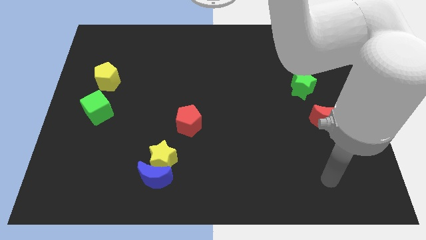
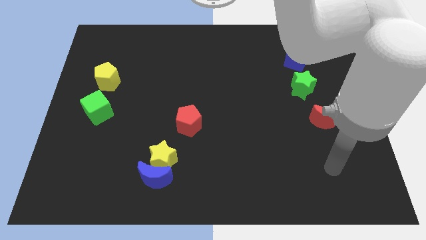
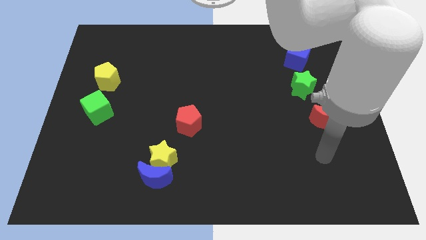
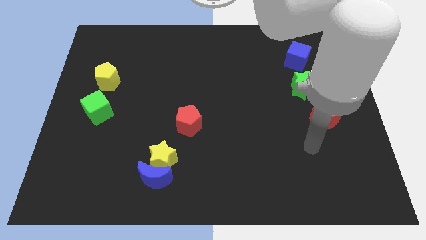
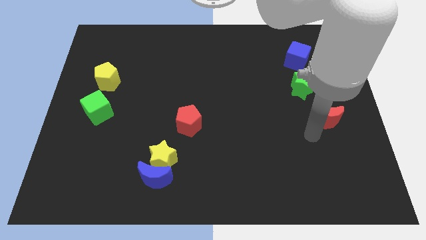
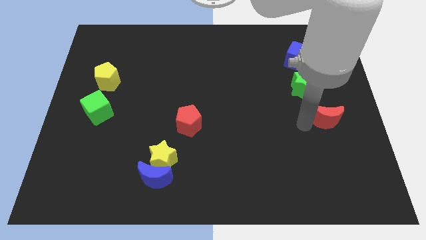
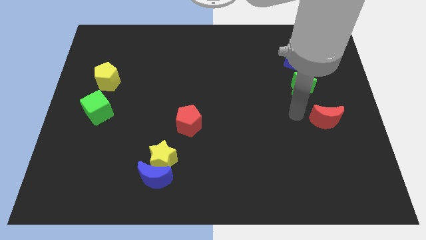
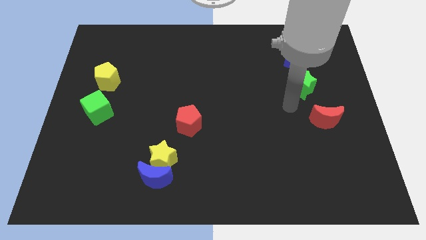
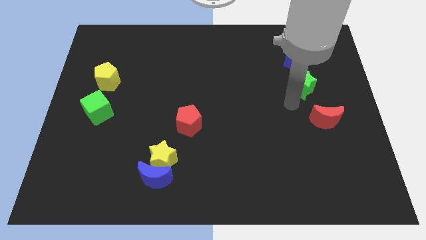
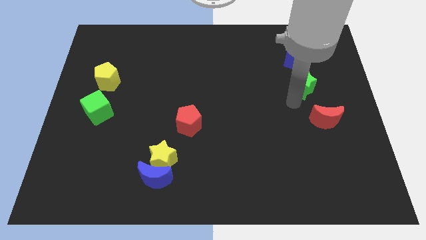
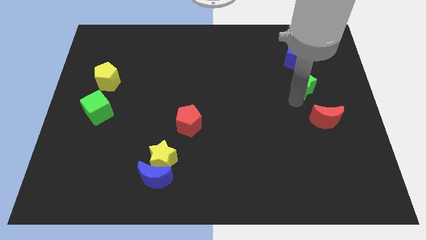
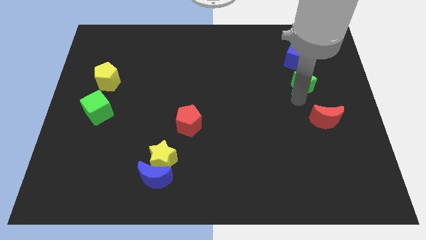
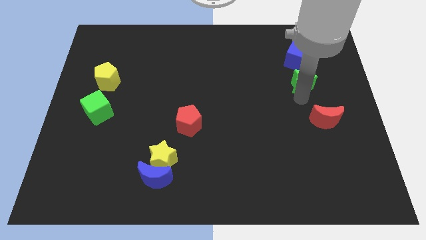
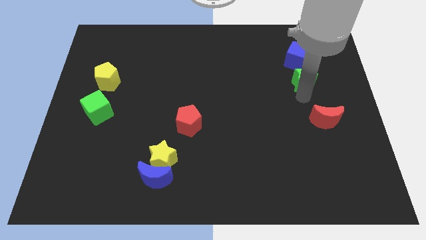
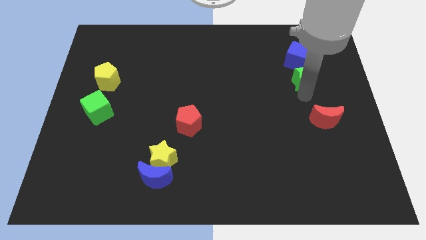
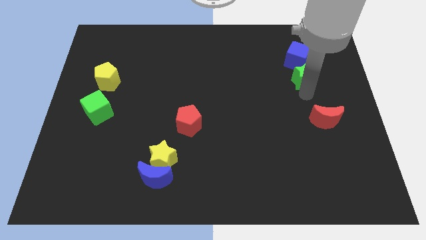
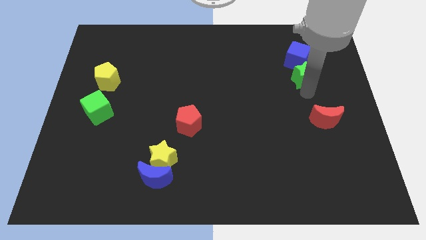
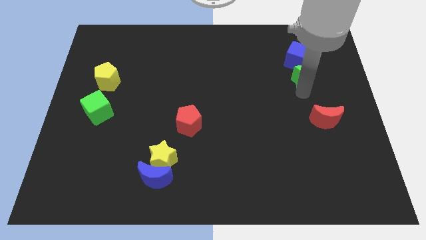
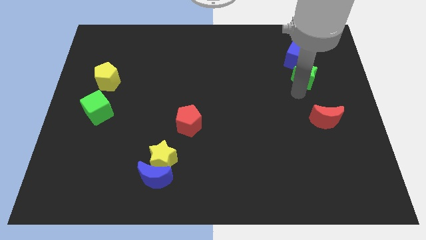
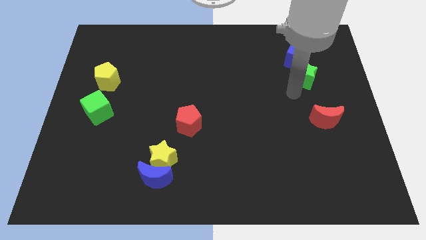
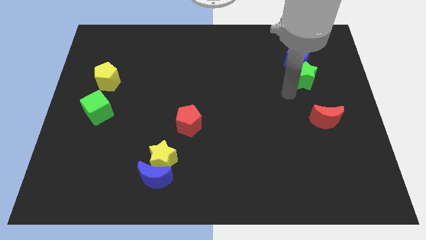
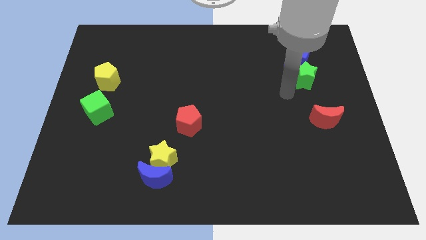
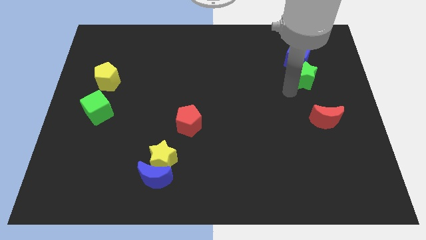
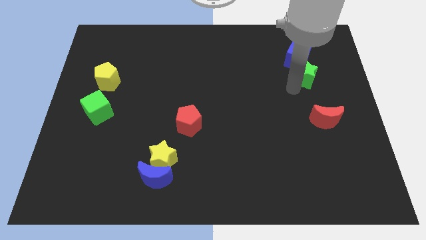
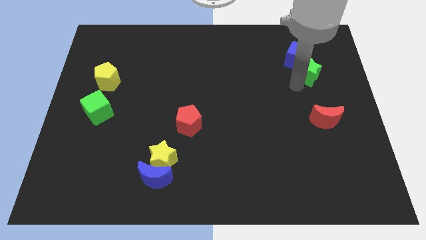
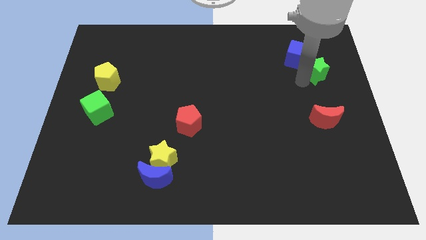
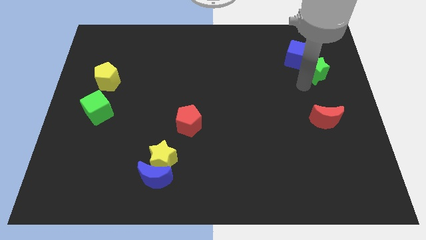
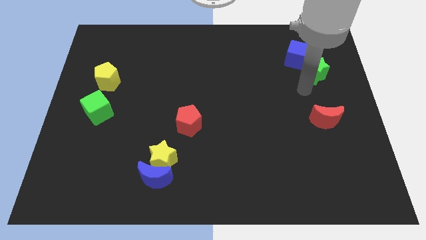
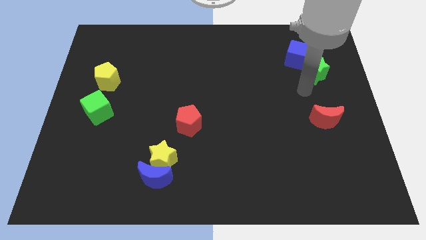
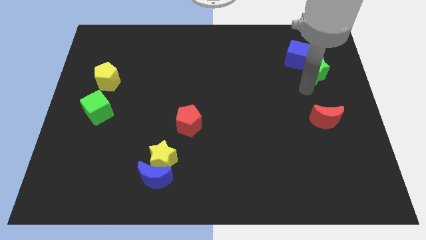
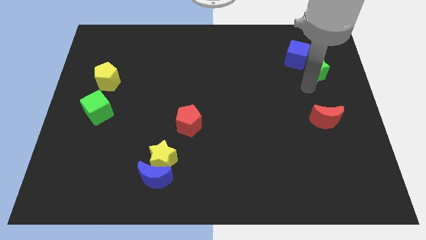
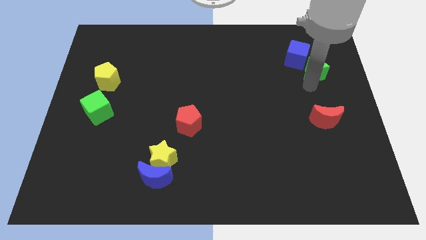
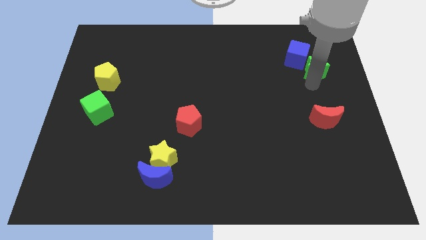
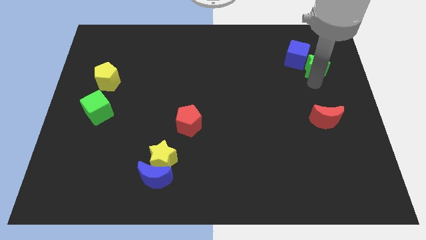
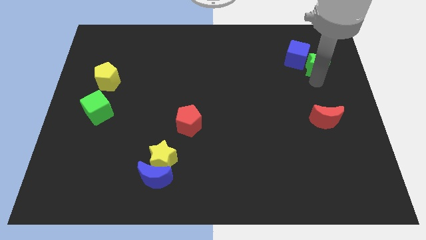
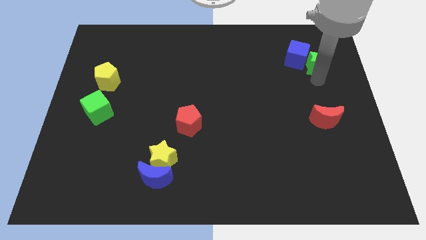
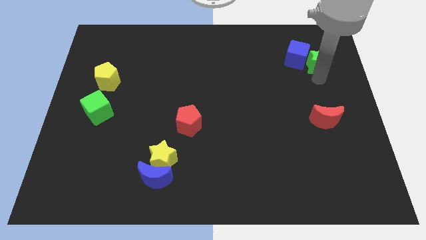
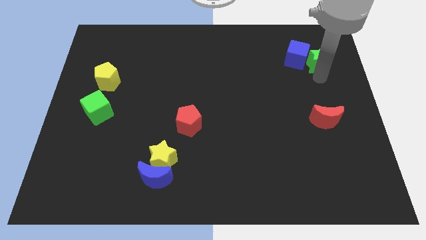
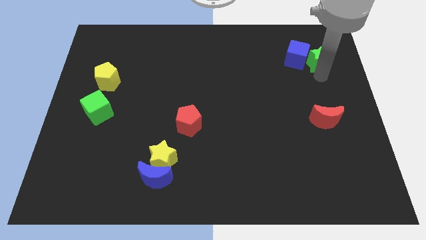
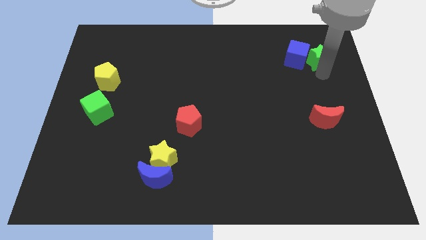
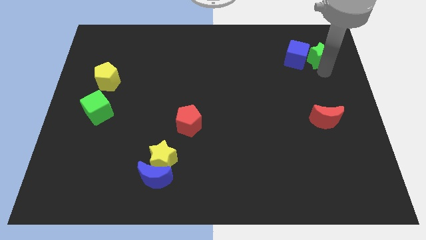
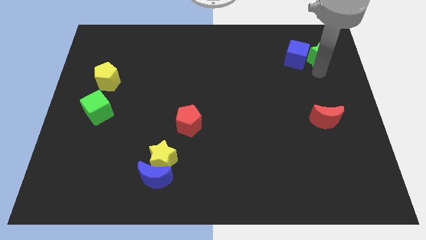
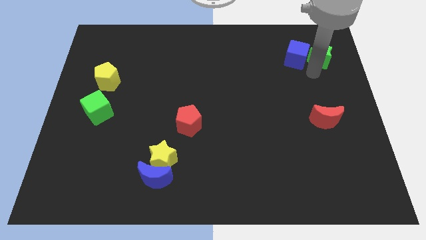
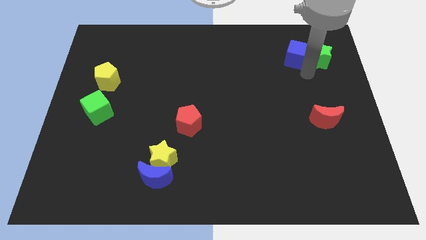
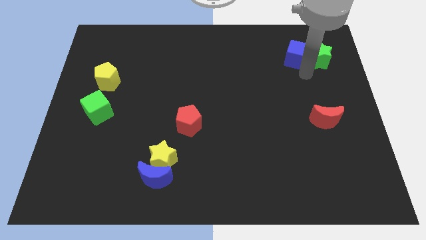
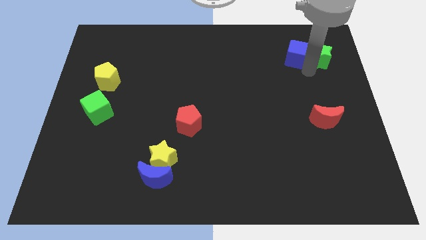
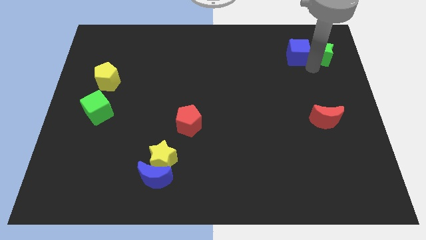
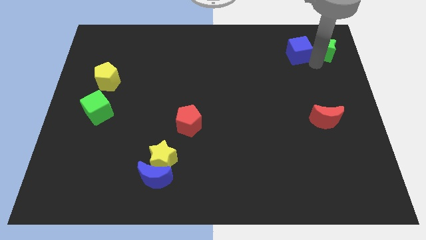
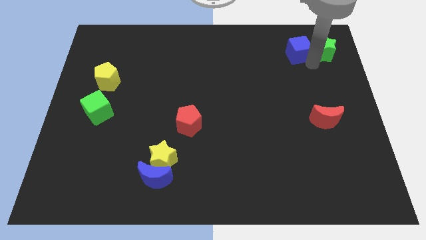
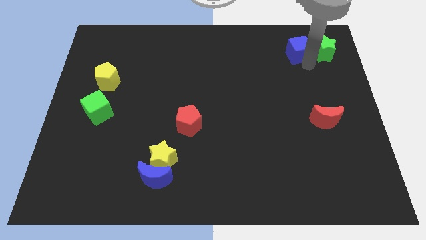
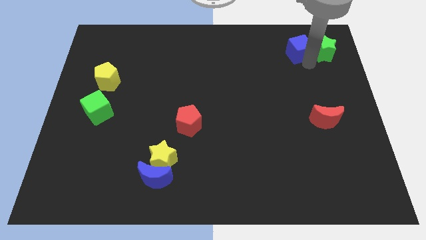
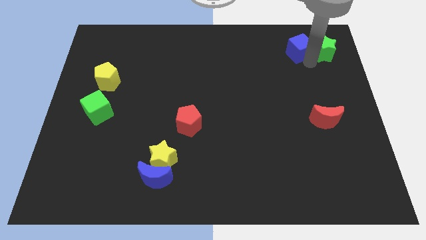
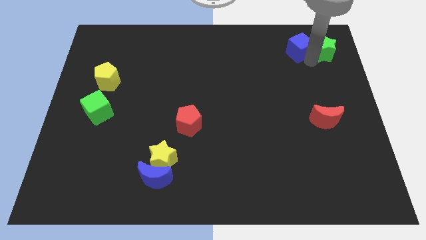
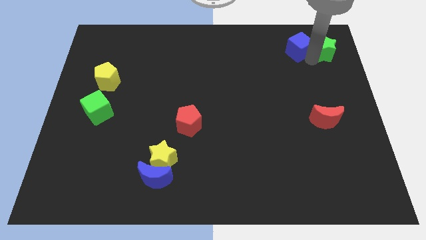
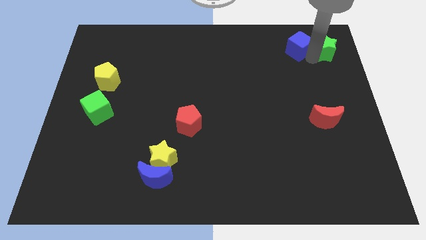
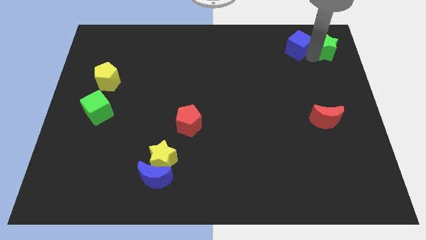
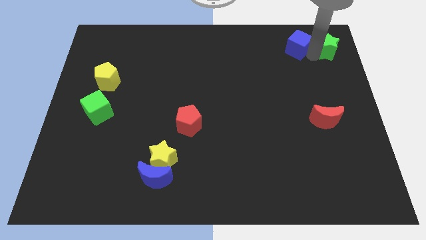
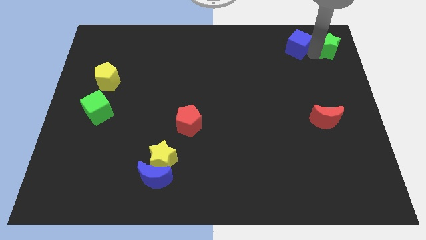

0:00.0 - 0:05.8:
slide the green star to the top right
